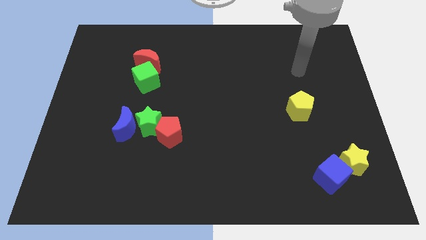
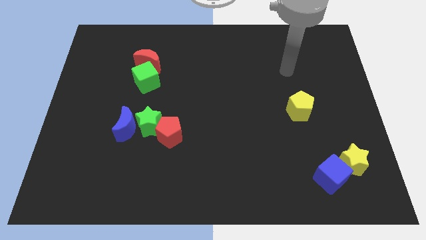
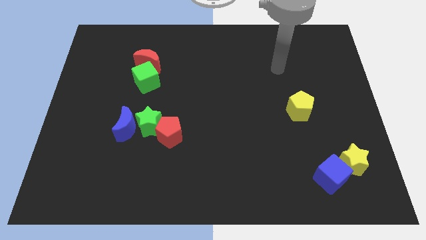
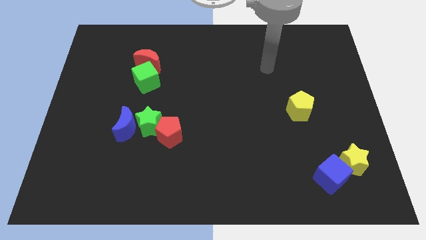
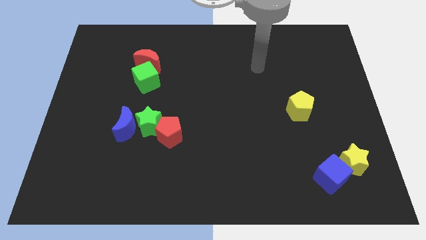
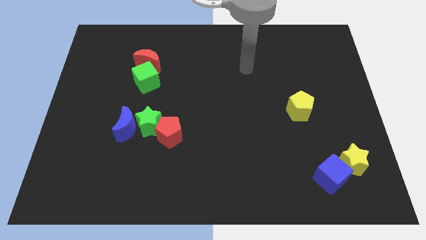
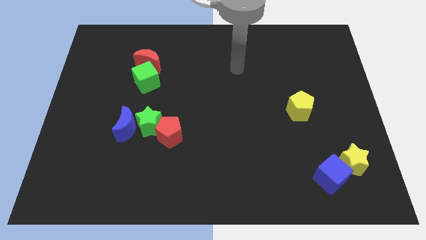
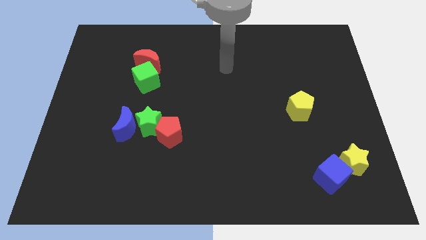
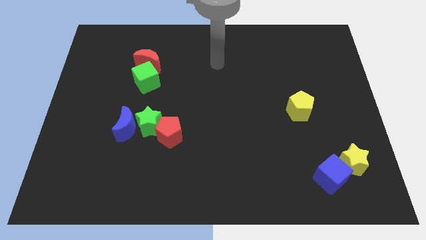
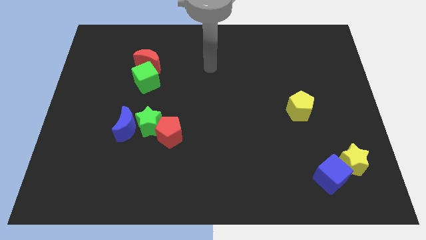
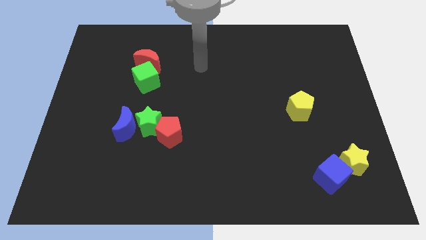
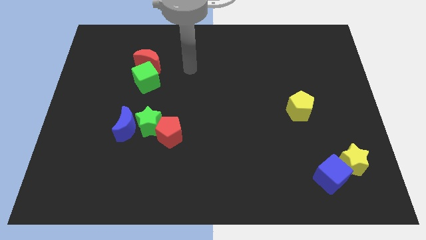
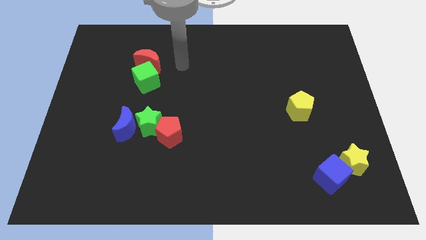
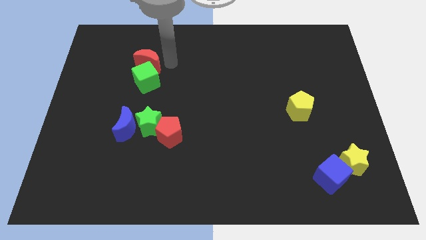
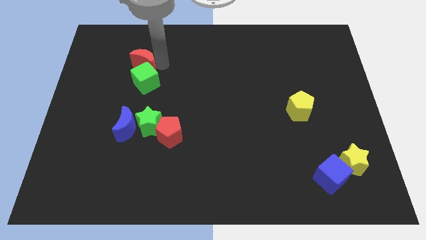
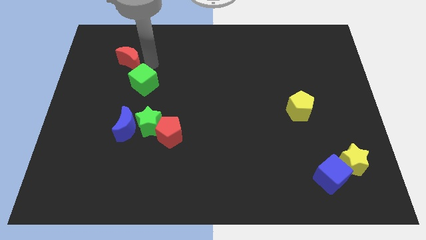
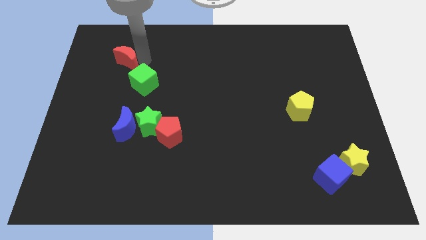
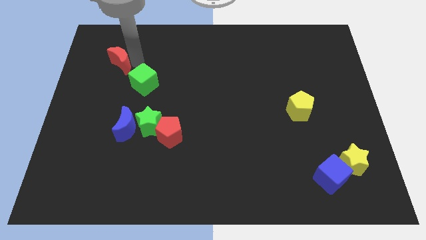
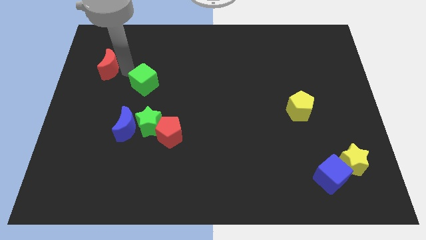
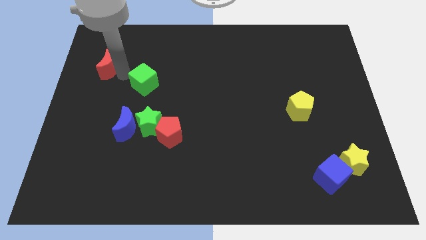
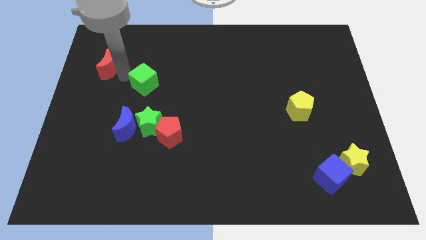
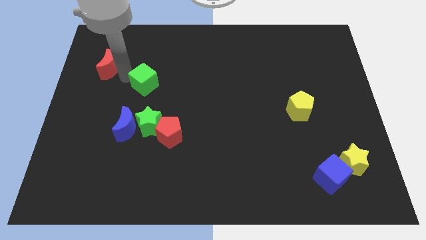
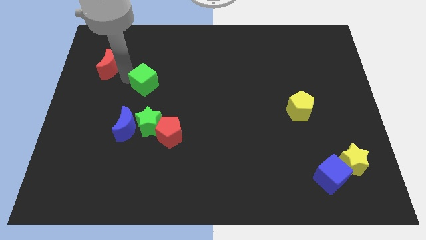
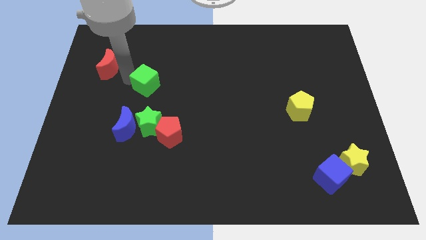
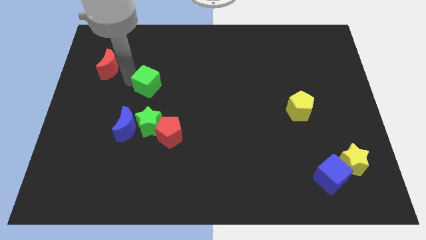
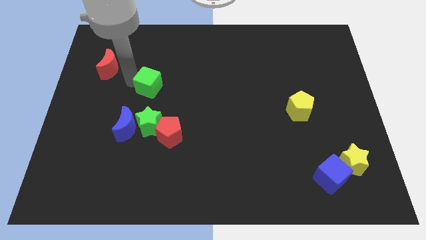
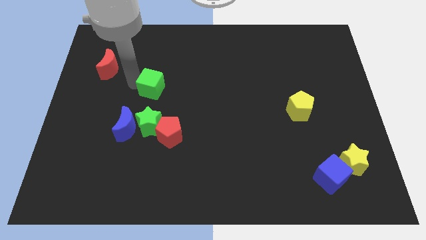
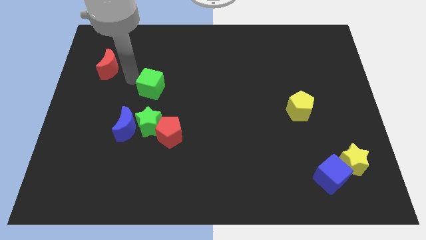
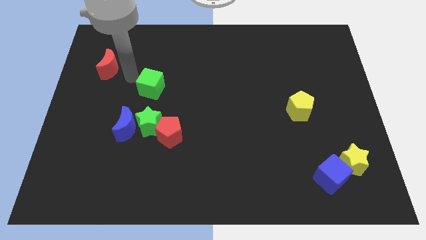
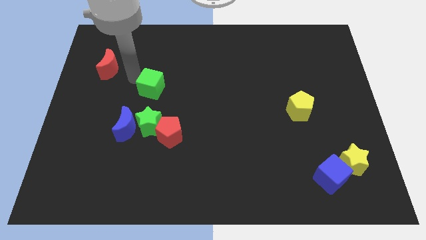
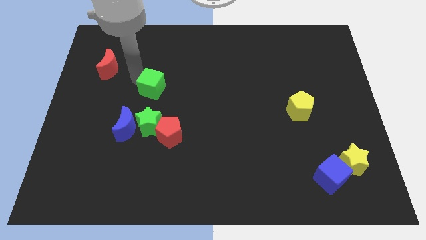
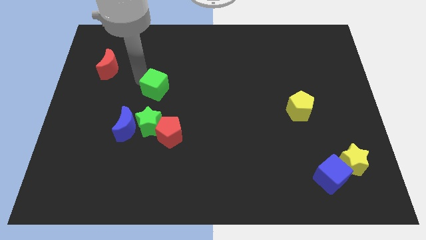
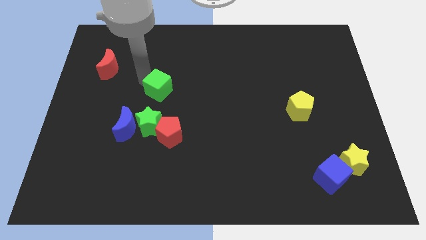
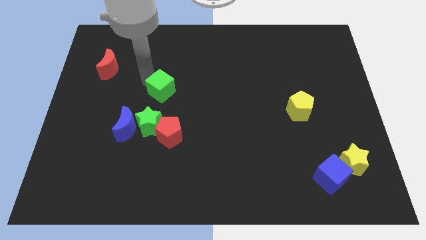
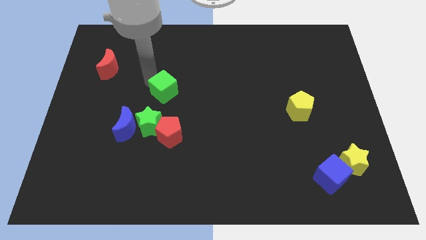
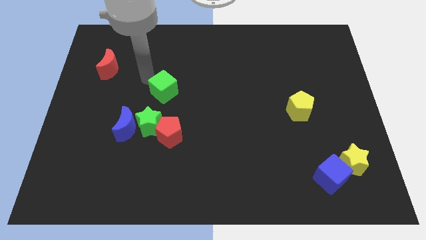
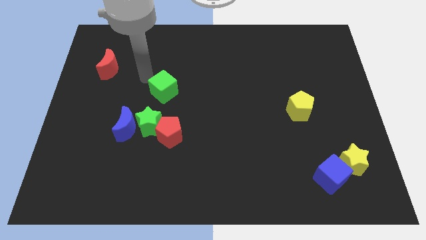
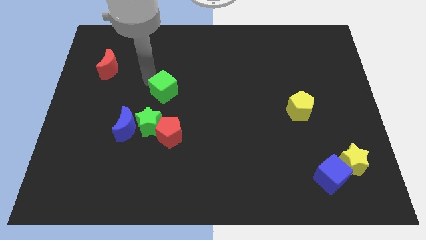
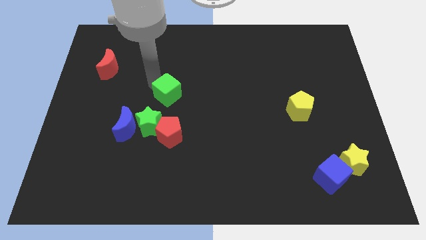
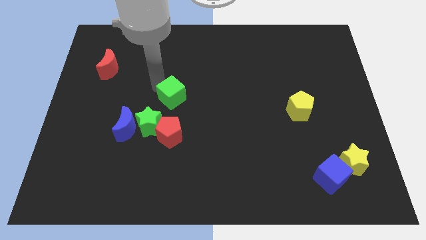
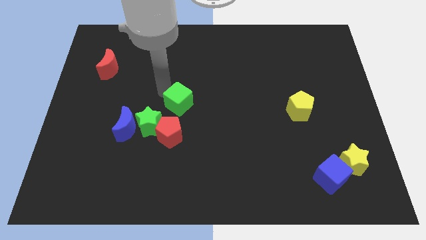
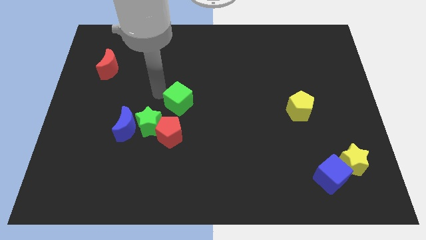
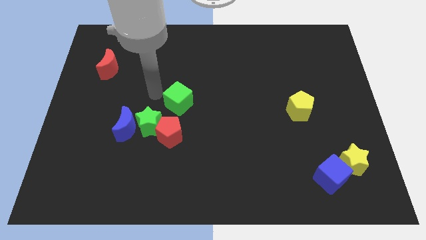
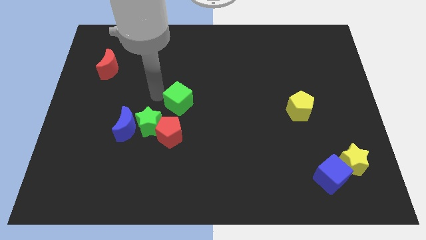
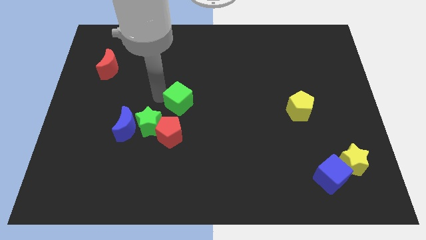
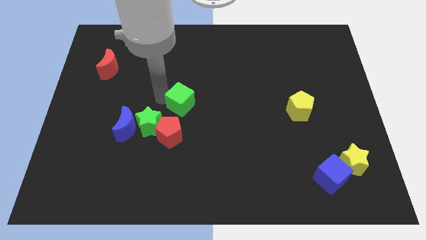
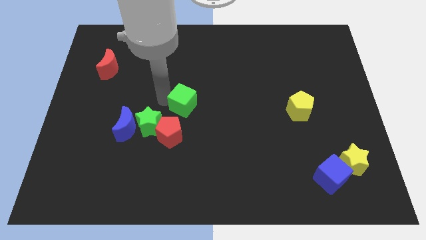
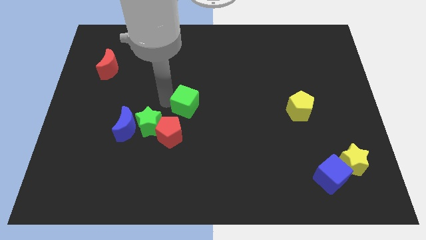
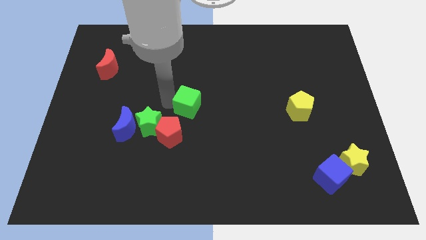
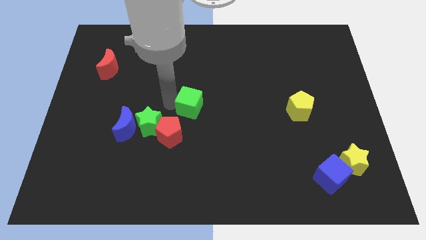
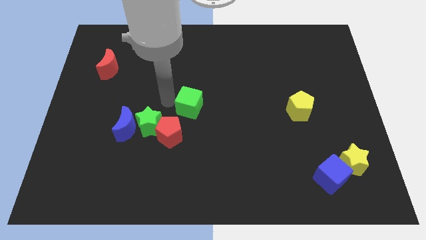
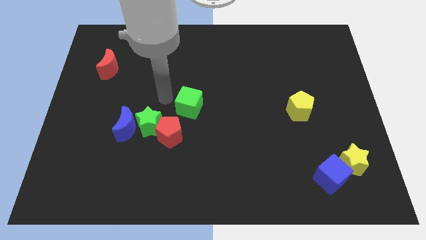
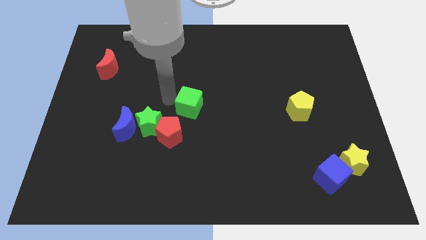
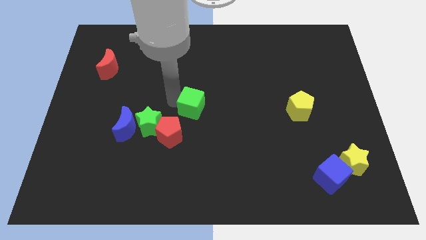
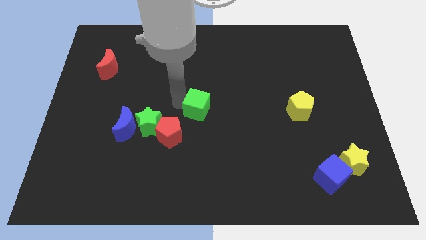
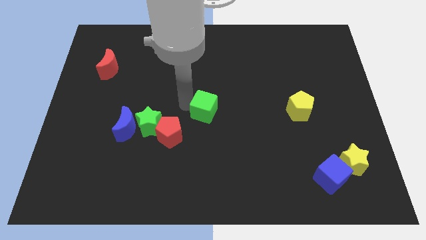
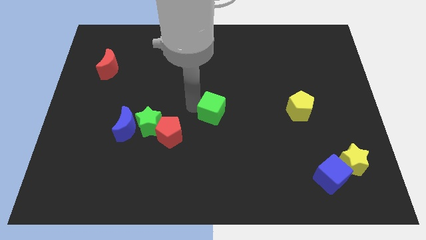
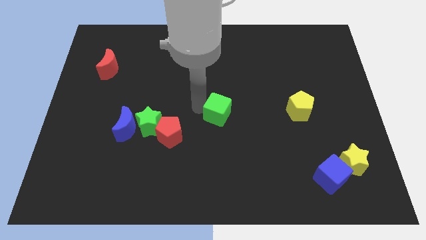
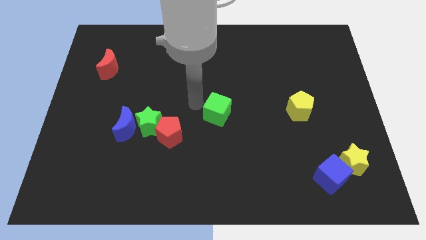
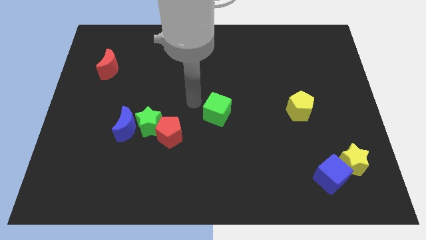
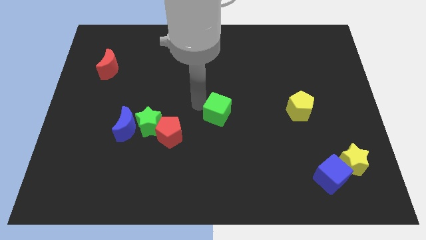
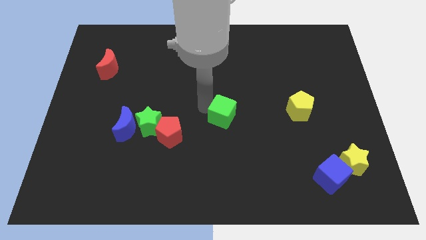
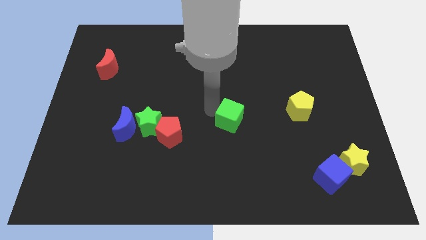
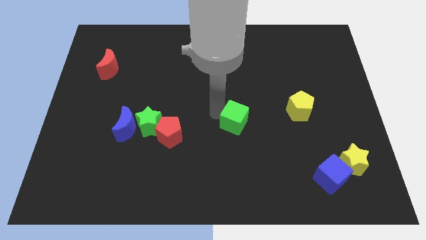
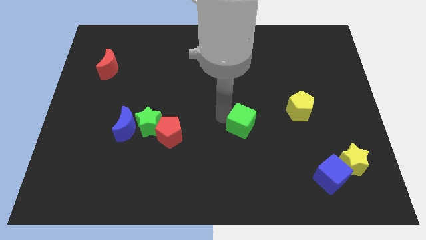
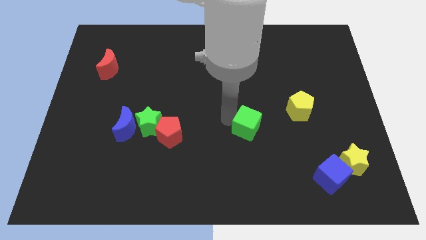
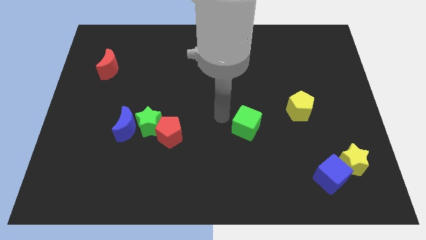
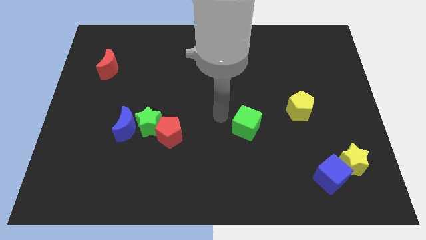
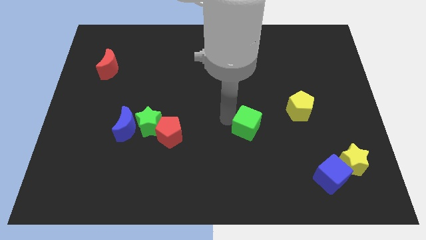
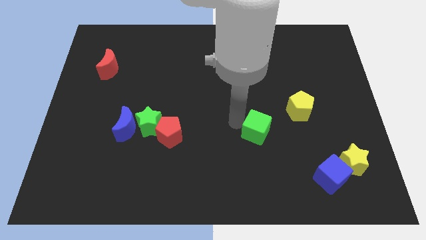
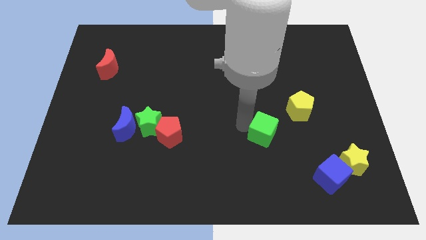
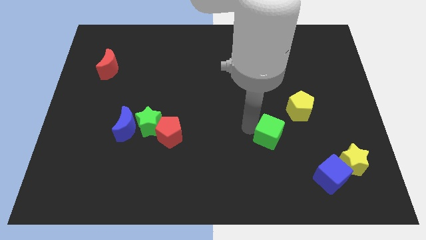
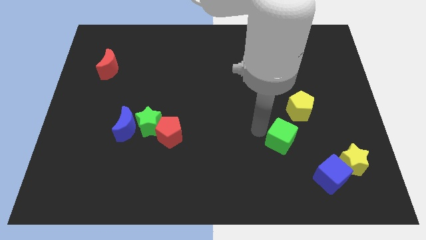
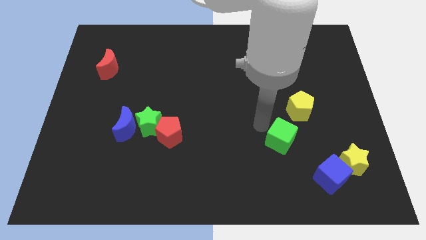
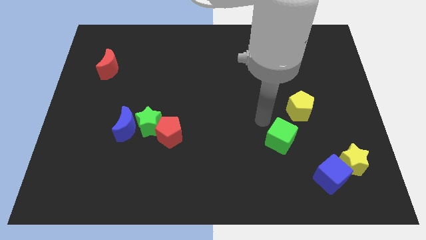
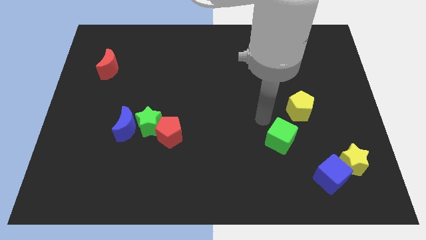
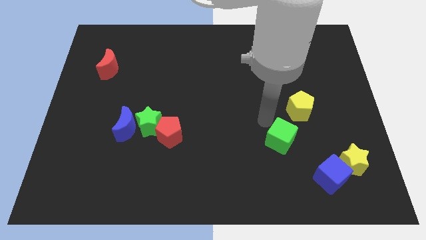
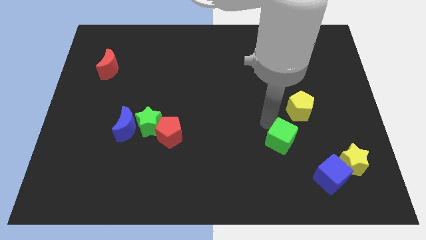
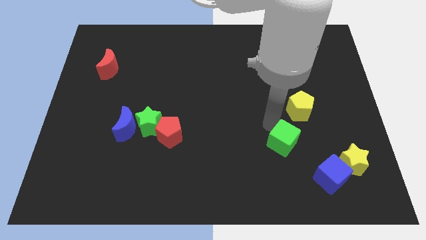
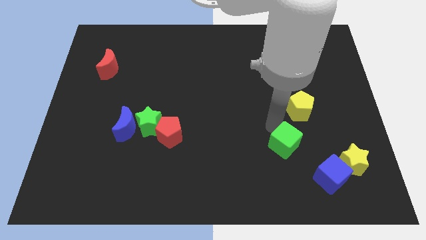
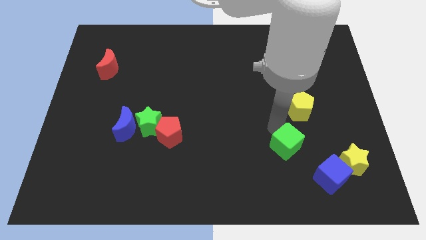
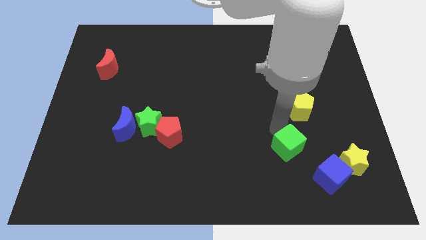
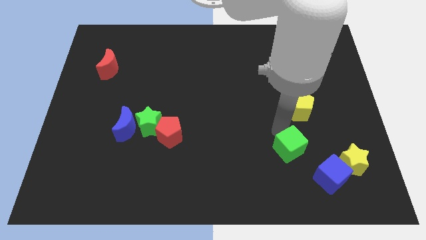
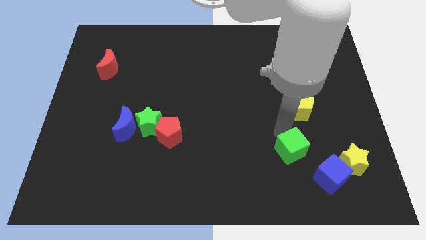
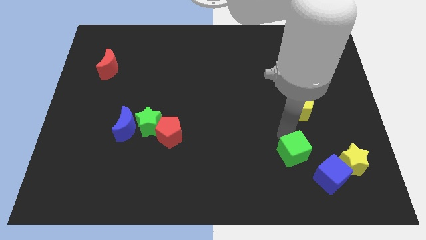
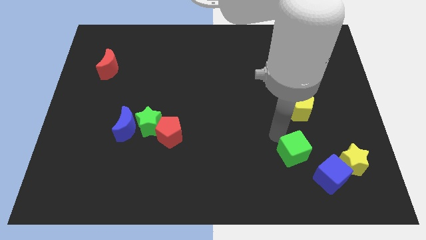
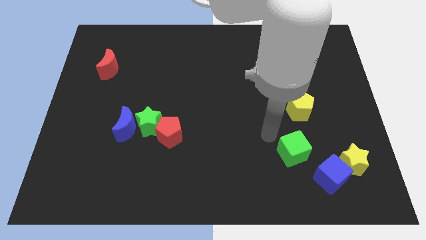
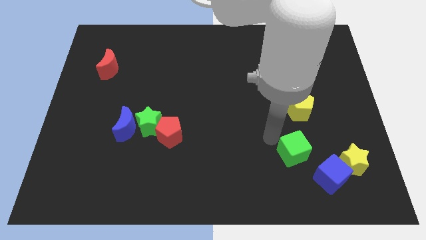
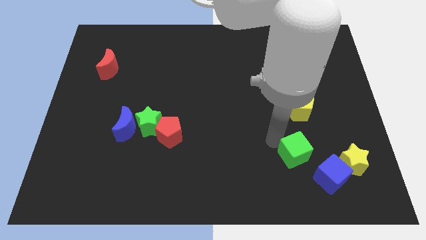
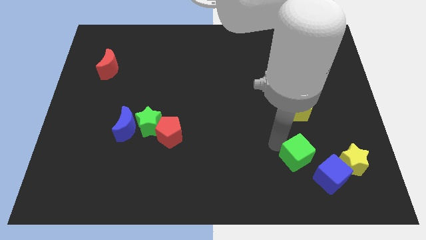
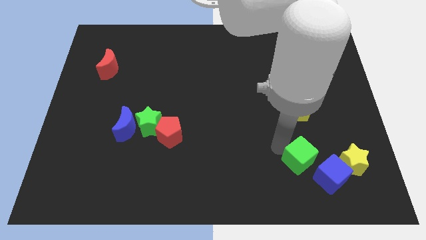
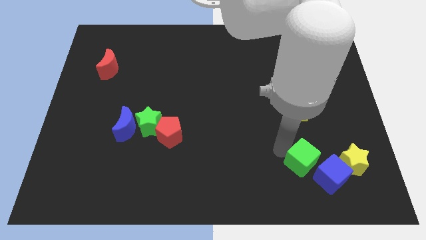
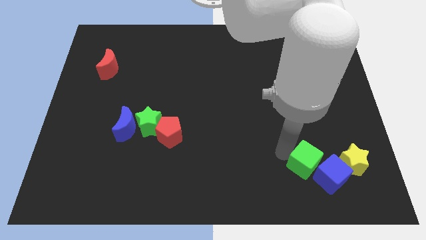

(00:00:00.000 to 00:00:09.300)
slide the green cube close to the blue cube
